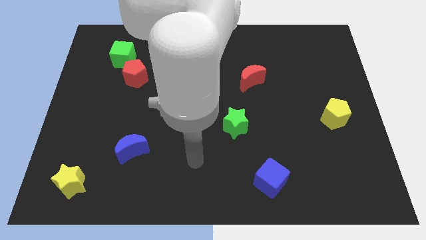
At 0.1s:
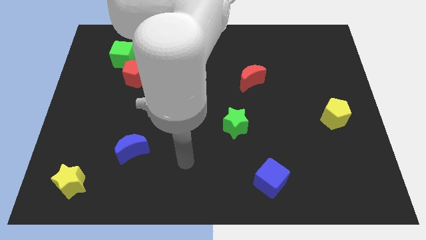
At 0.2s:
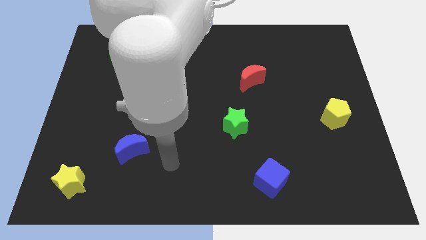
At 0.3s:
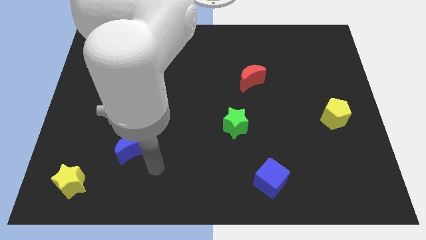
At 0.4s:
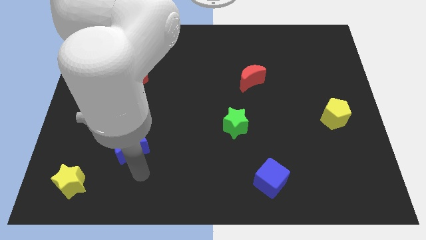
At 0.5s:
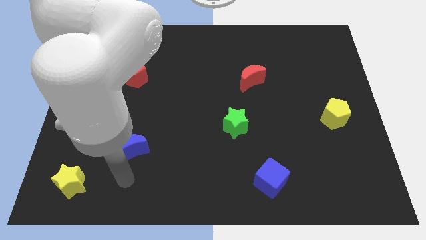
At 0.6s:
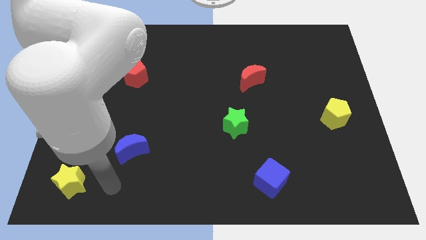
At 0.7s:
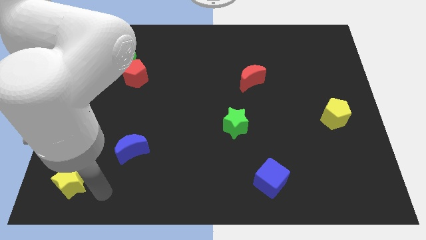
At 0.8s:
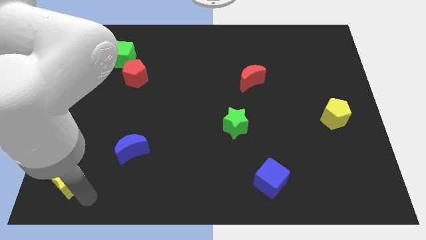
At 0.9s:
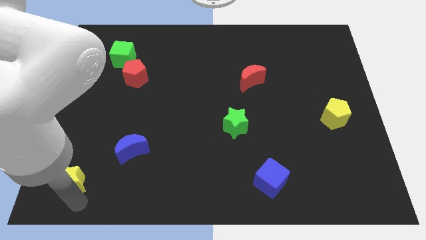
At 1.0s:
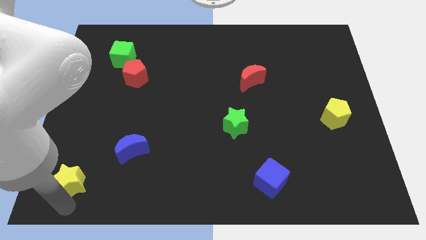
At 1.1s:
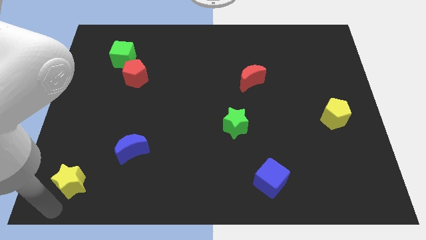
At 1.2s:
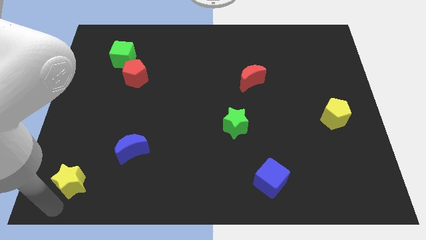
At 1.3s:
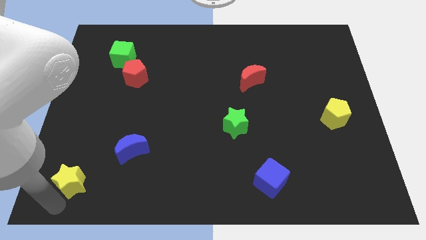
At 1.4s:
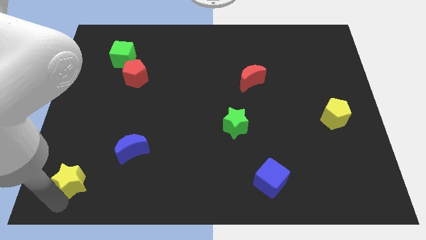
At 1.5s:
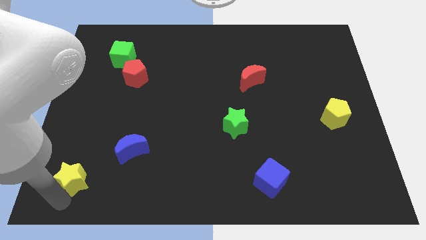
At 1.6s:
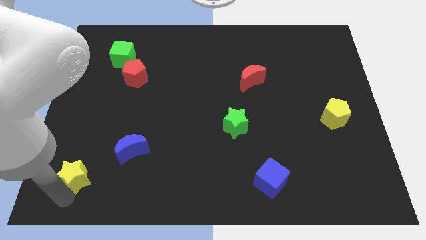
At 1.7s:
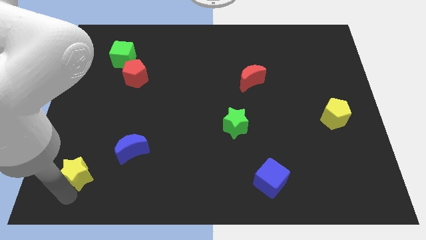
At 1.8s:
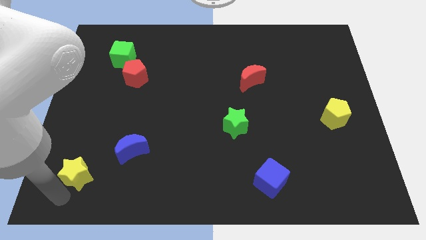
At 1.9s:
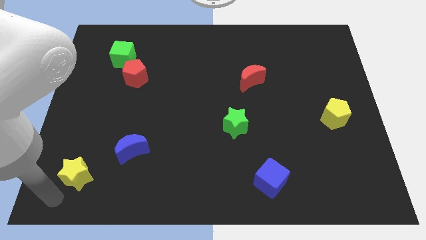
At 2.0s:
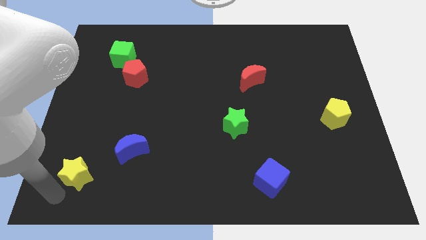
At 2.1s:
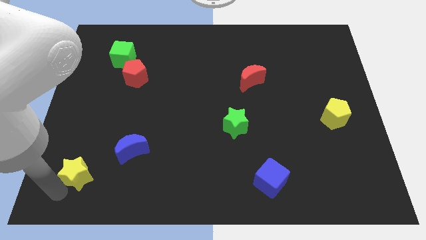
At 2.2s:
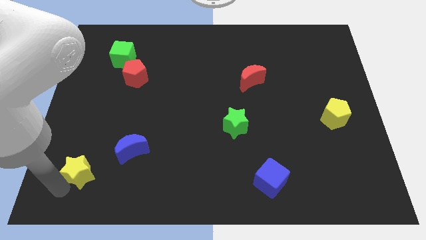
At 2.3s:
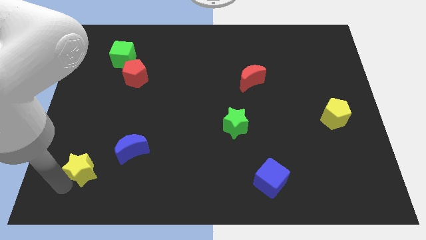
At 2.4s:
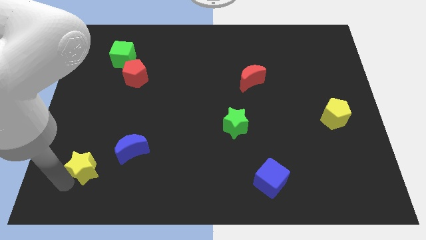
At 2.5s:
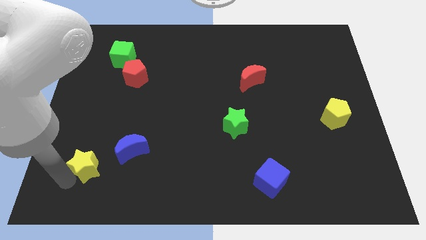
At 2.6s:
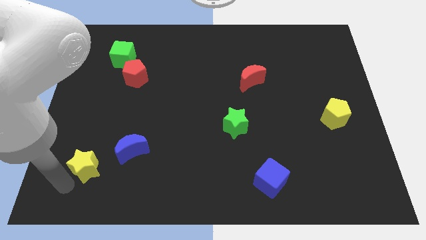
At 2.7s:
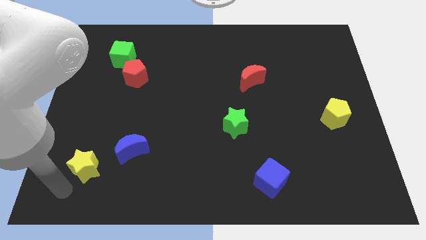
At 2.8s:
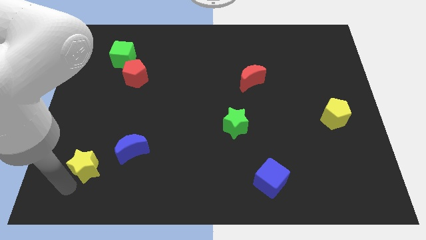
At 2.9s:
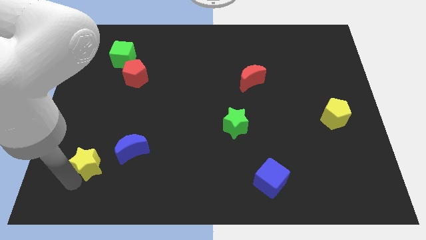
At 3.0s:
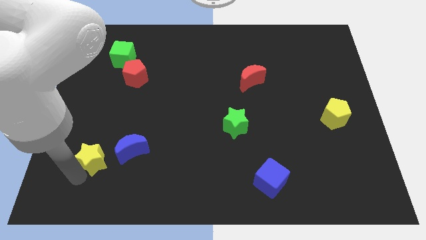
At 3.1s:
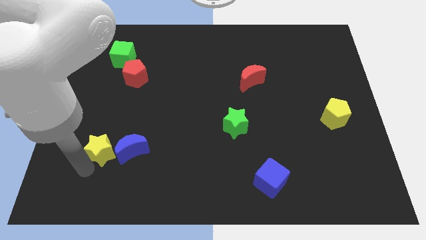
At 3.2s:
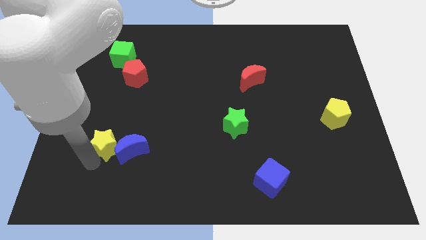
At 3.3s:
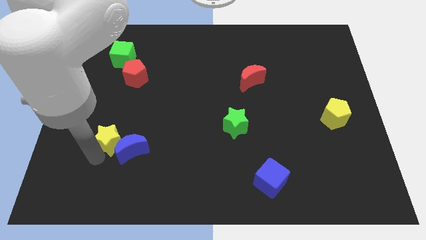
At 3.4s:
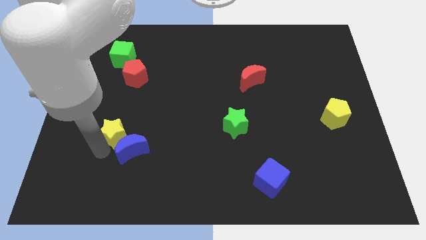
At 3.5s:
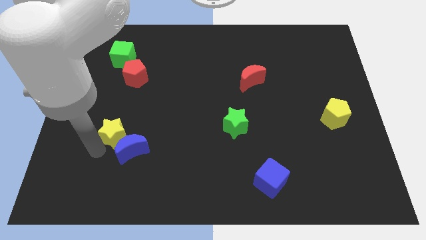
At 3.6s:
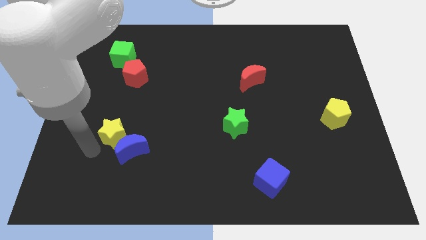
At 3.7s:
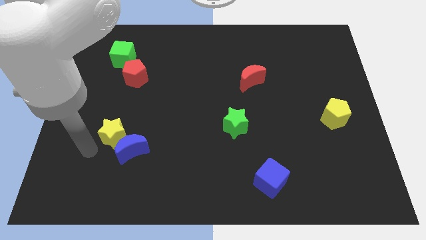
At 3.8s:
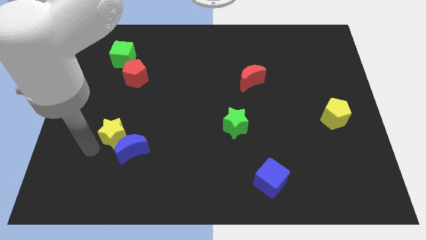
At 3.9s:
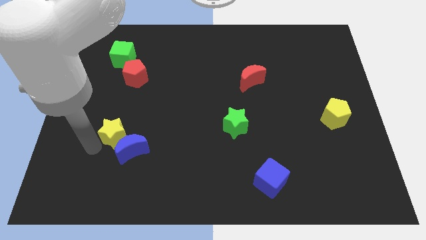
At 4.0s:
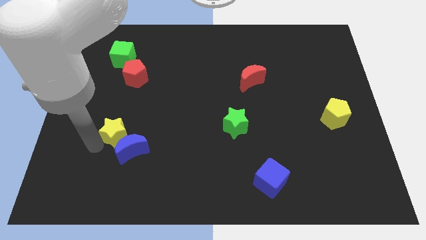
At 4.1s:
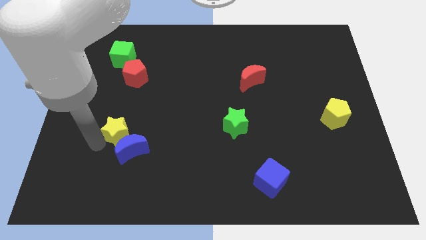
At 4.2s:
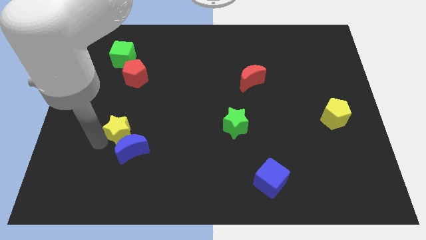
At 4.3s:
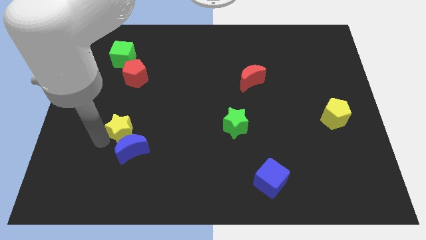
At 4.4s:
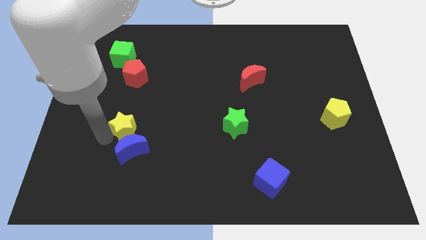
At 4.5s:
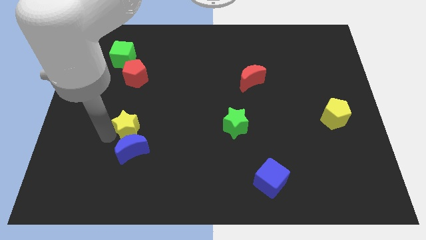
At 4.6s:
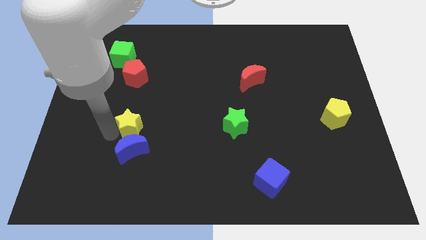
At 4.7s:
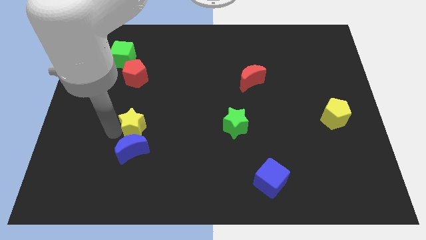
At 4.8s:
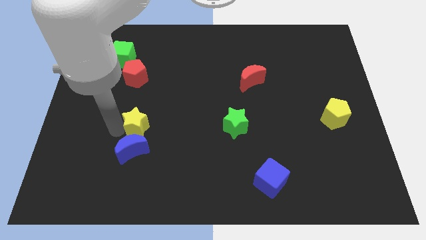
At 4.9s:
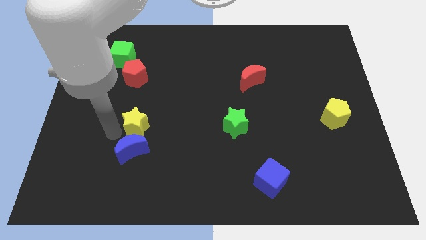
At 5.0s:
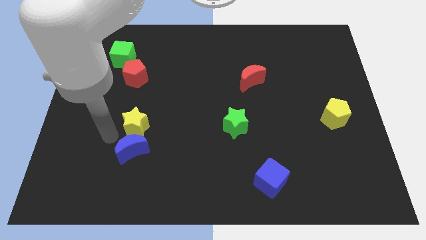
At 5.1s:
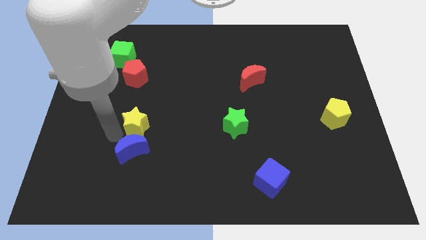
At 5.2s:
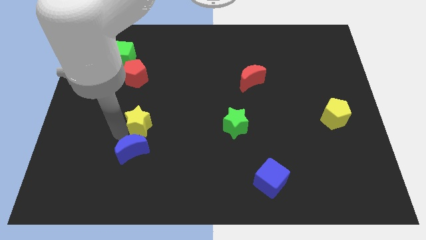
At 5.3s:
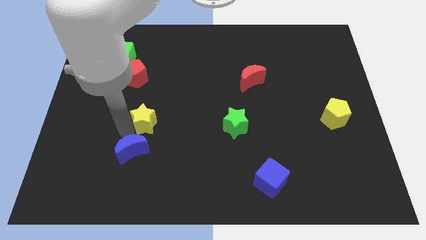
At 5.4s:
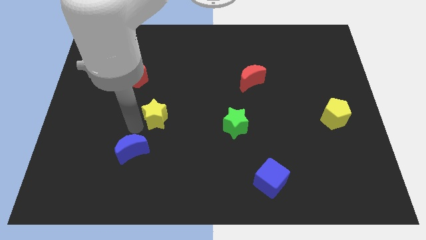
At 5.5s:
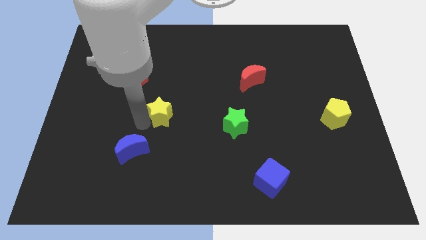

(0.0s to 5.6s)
push the yellow star to the center of the board
